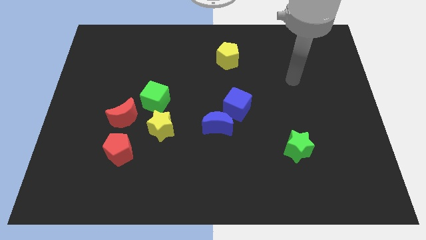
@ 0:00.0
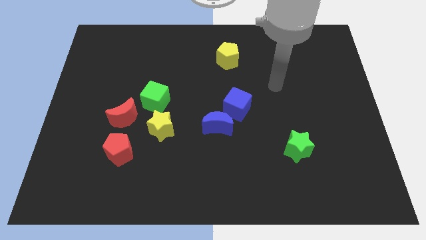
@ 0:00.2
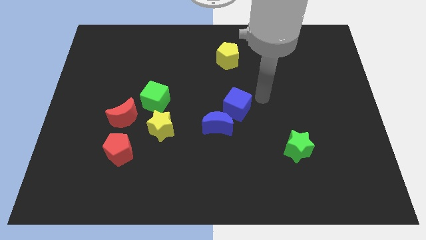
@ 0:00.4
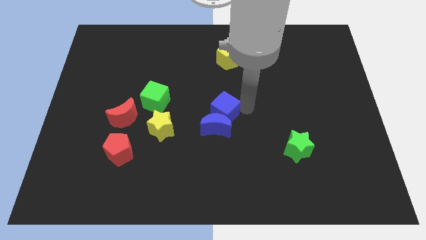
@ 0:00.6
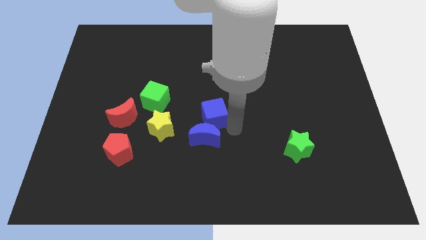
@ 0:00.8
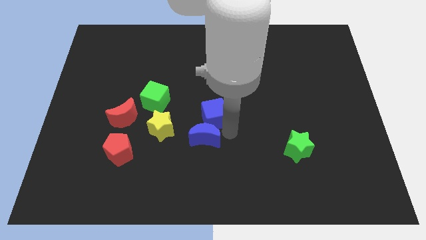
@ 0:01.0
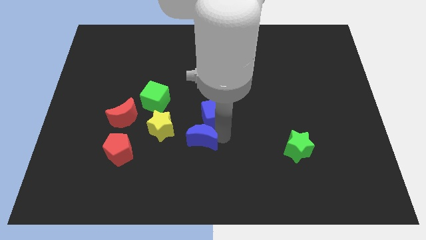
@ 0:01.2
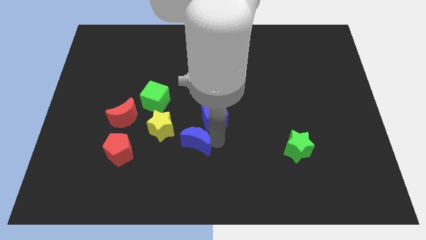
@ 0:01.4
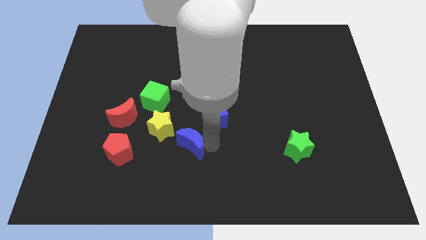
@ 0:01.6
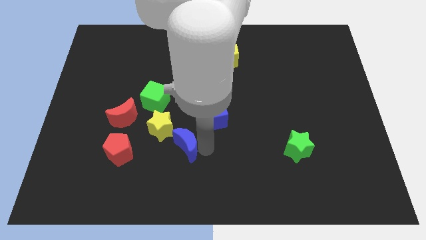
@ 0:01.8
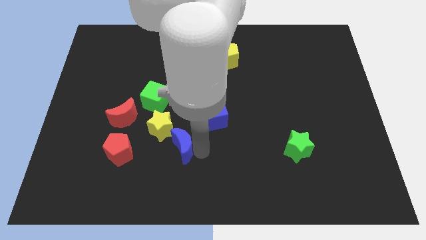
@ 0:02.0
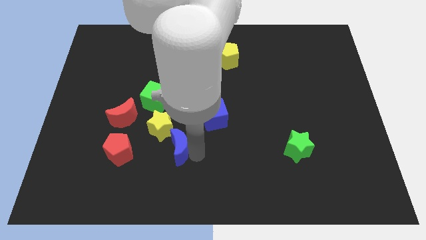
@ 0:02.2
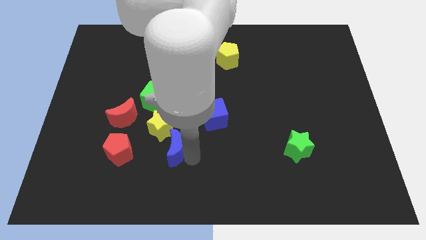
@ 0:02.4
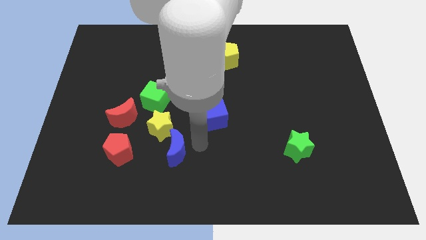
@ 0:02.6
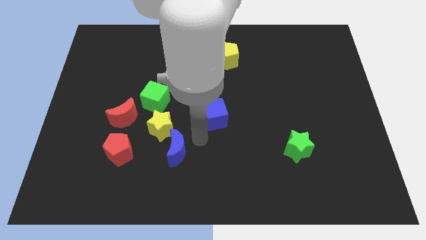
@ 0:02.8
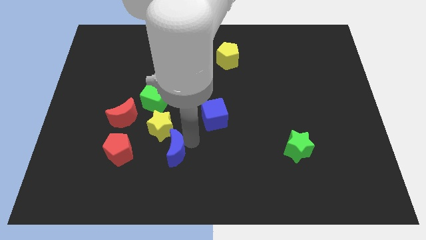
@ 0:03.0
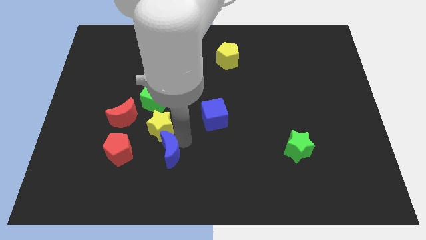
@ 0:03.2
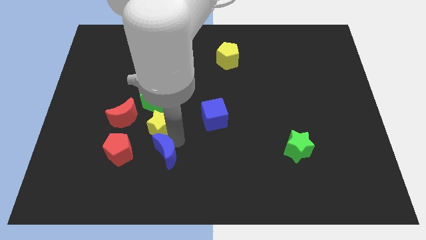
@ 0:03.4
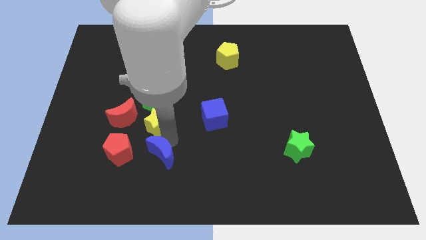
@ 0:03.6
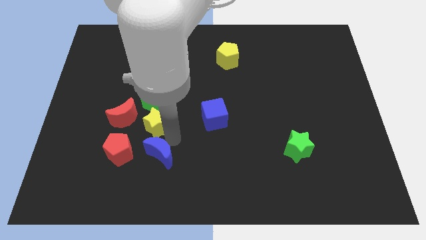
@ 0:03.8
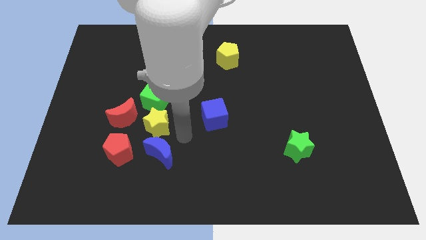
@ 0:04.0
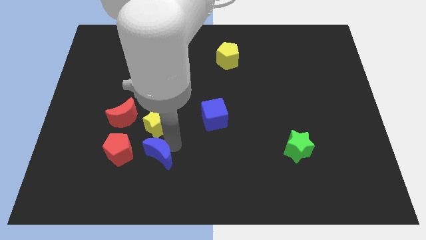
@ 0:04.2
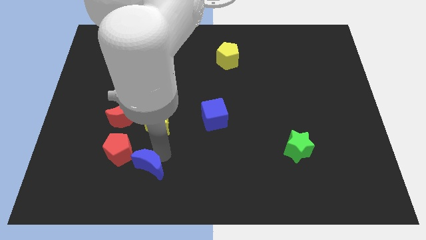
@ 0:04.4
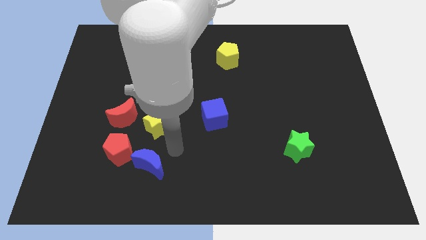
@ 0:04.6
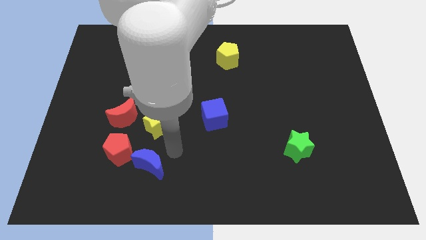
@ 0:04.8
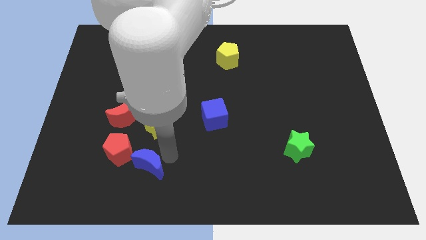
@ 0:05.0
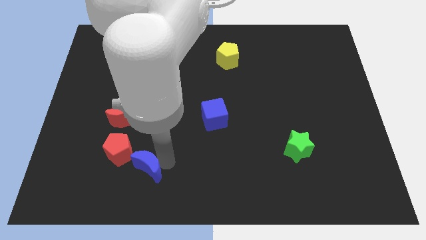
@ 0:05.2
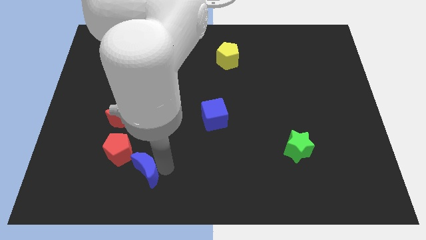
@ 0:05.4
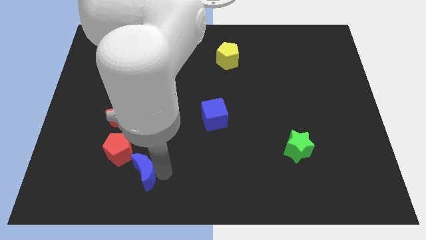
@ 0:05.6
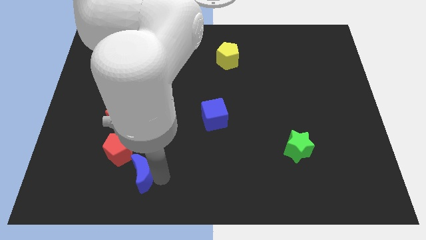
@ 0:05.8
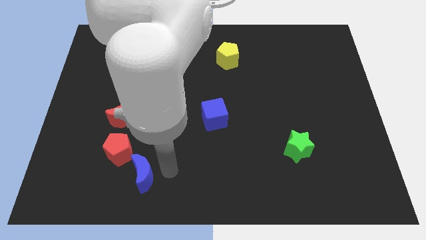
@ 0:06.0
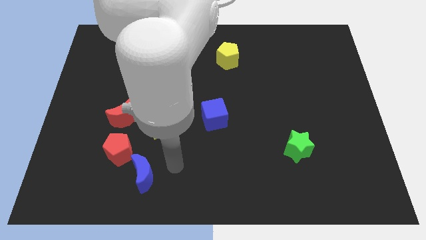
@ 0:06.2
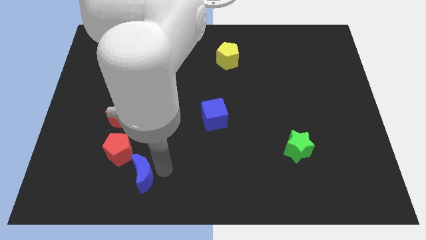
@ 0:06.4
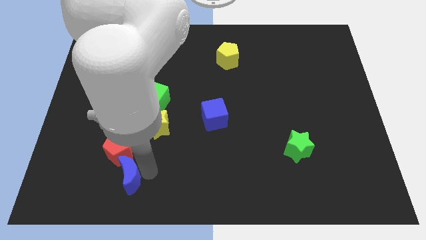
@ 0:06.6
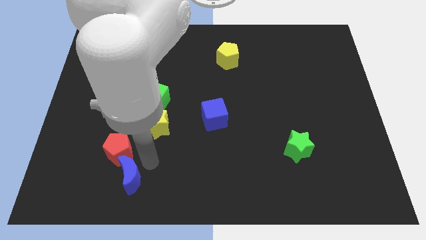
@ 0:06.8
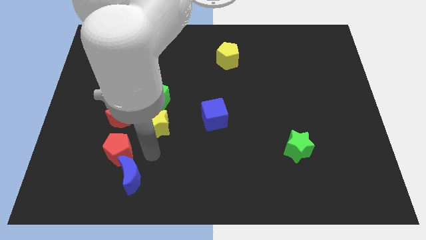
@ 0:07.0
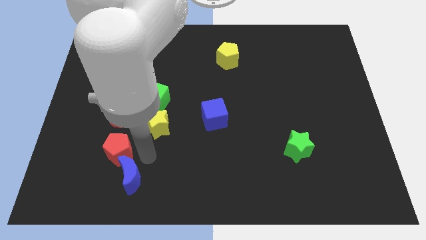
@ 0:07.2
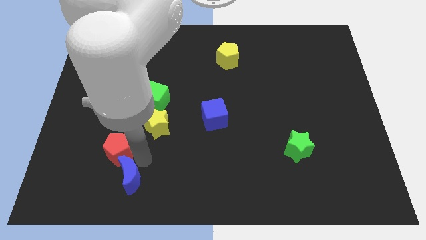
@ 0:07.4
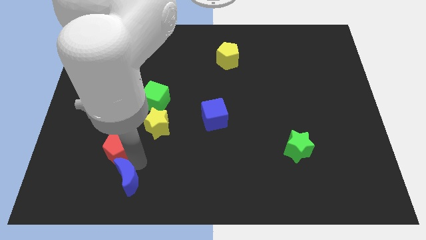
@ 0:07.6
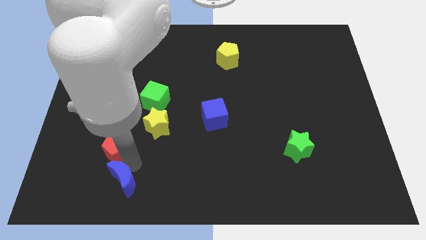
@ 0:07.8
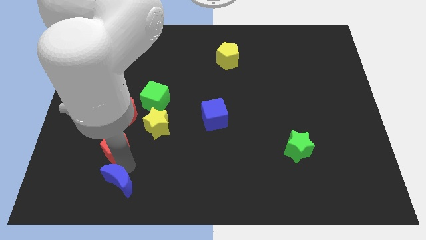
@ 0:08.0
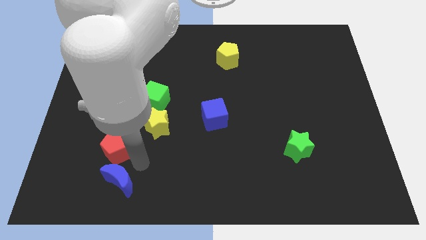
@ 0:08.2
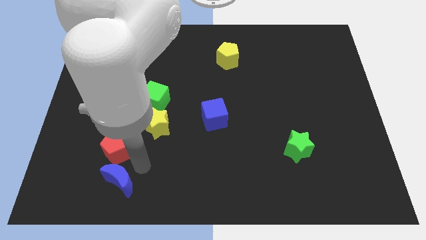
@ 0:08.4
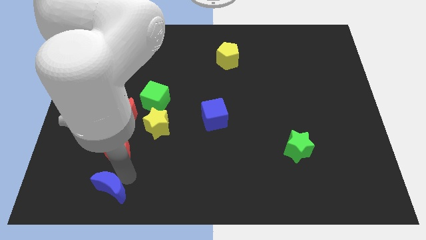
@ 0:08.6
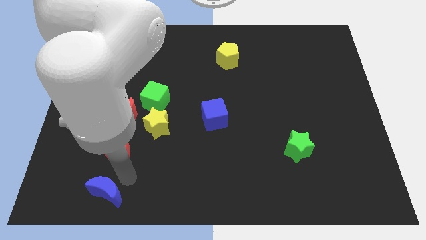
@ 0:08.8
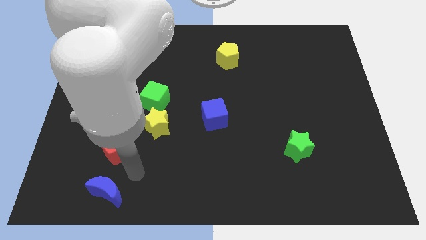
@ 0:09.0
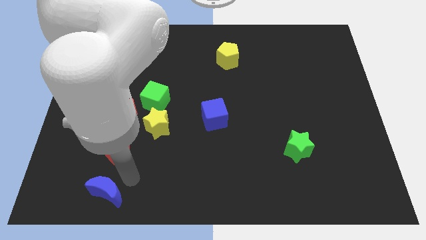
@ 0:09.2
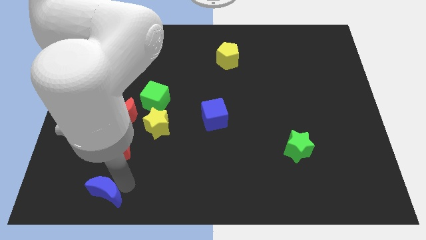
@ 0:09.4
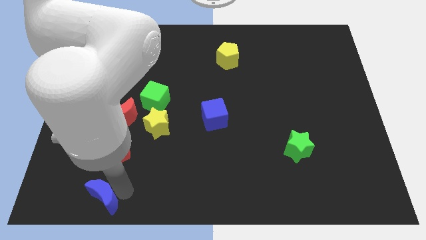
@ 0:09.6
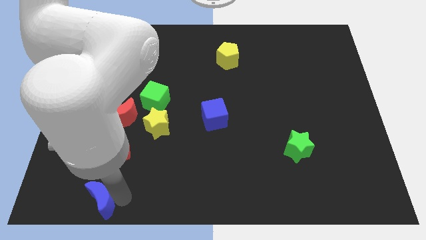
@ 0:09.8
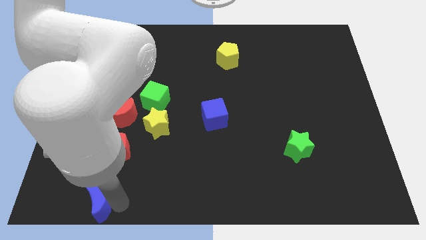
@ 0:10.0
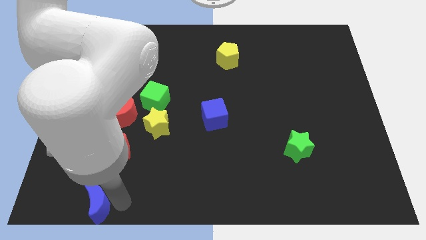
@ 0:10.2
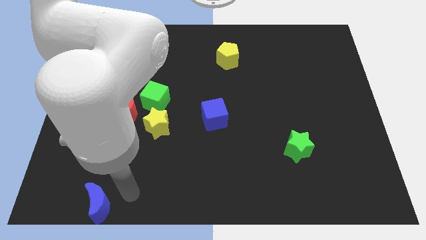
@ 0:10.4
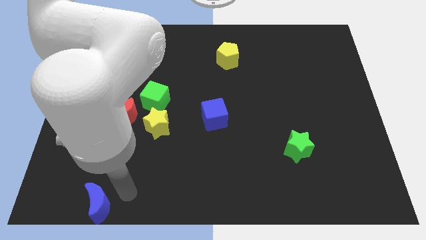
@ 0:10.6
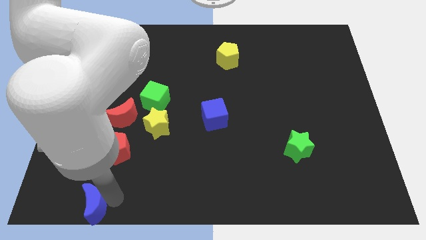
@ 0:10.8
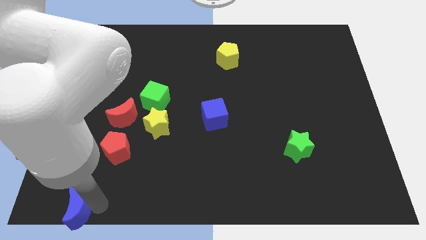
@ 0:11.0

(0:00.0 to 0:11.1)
move the blue moon to the bottom left corner

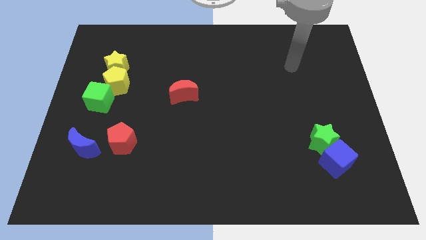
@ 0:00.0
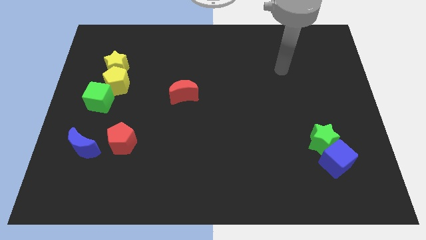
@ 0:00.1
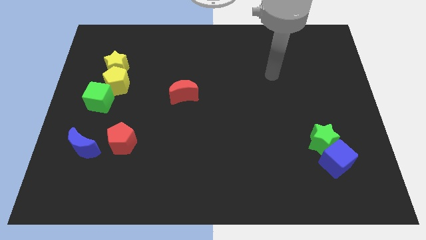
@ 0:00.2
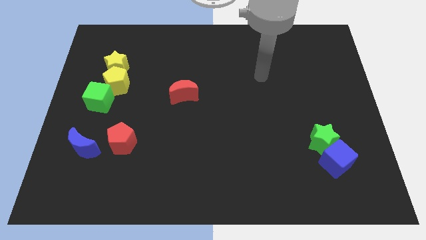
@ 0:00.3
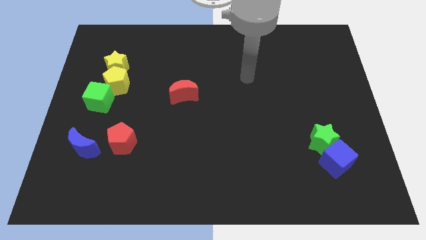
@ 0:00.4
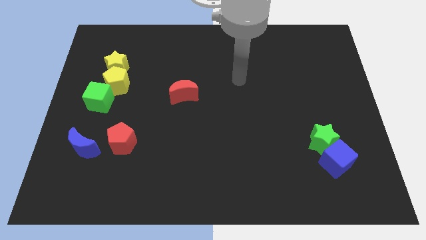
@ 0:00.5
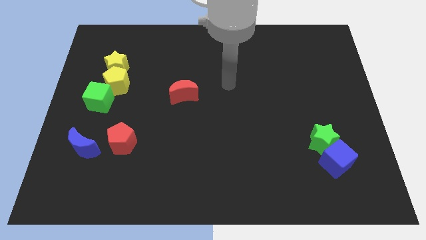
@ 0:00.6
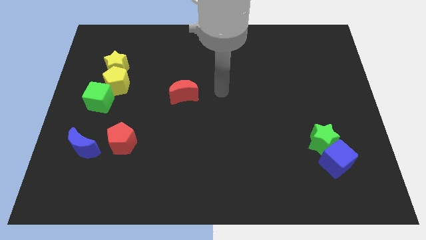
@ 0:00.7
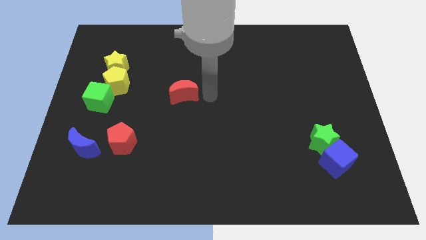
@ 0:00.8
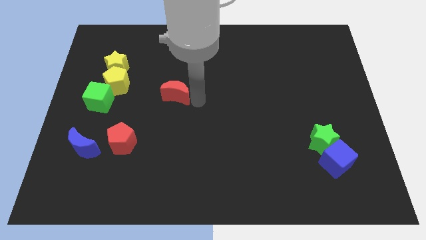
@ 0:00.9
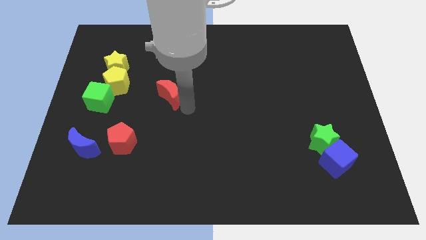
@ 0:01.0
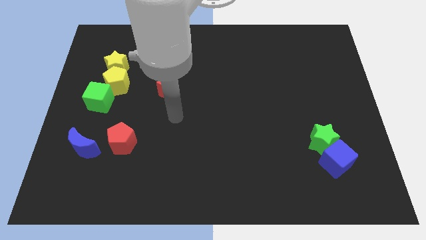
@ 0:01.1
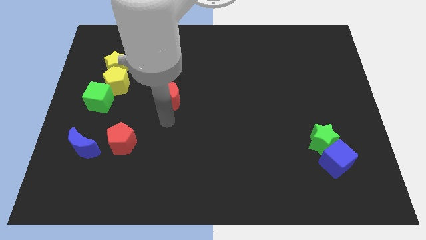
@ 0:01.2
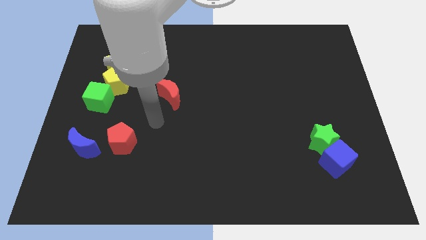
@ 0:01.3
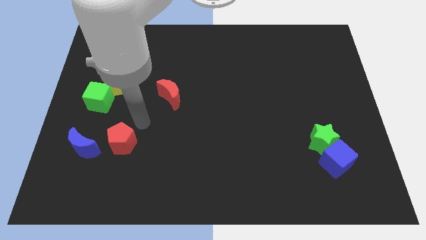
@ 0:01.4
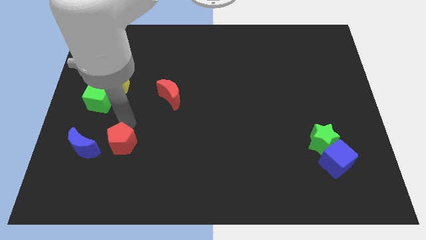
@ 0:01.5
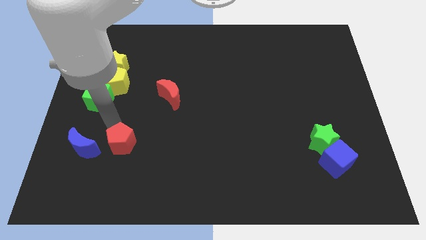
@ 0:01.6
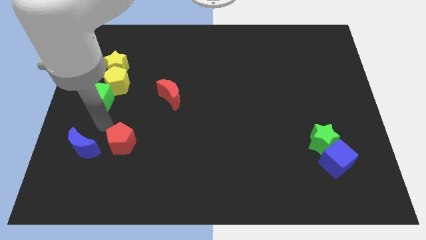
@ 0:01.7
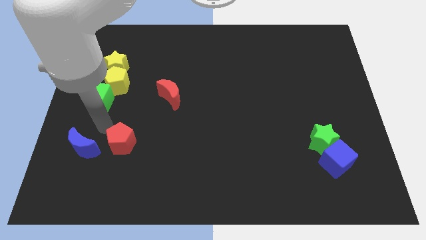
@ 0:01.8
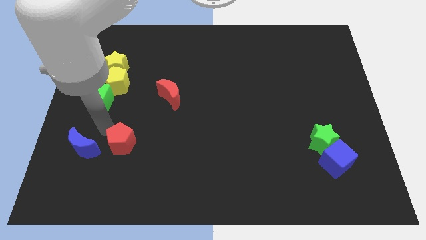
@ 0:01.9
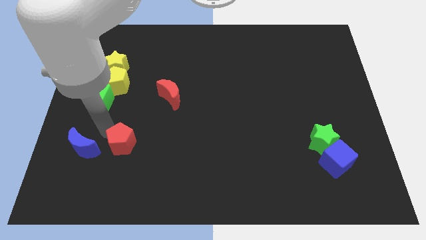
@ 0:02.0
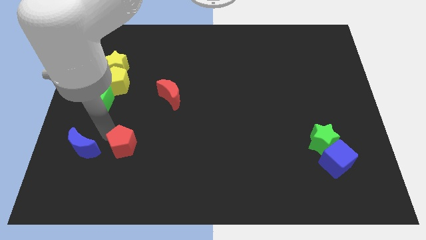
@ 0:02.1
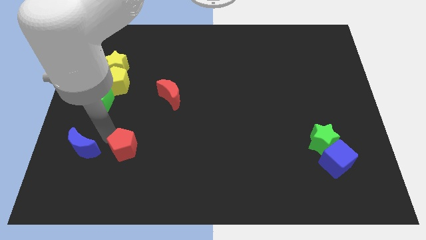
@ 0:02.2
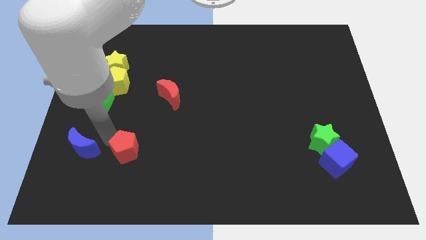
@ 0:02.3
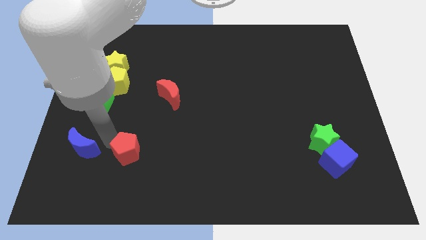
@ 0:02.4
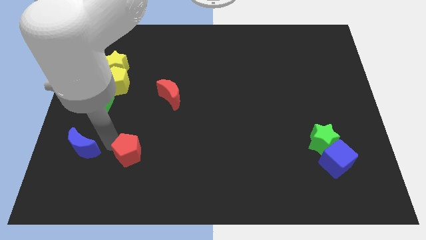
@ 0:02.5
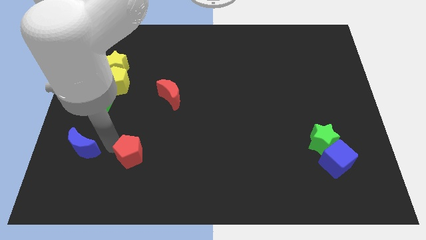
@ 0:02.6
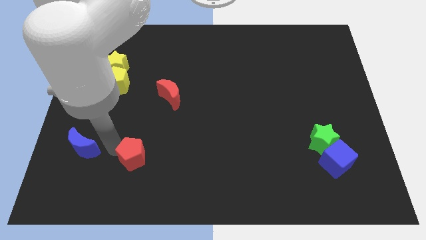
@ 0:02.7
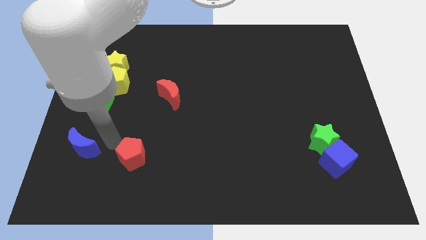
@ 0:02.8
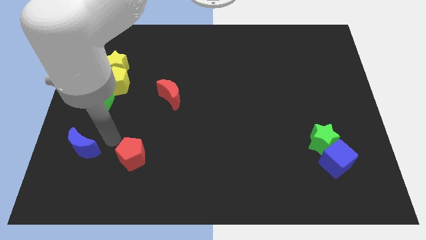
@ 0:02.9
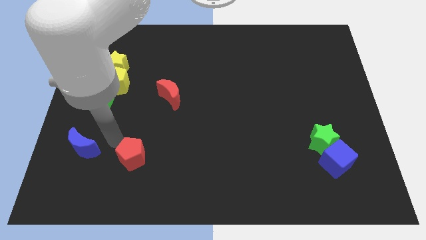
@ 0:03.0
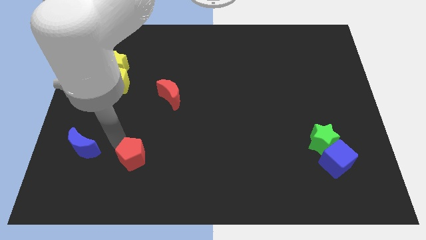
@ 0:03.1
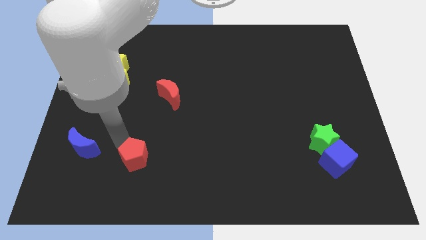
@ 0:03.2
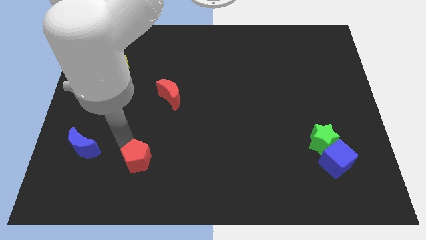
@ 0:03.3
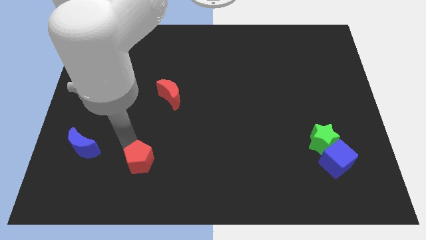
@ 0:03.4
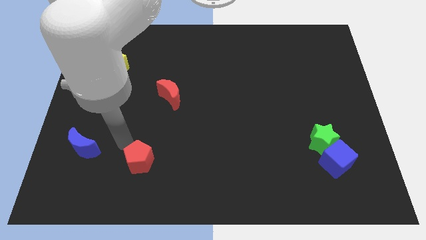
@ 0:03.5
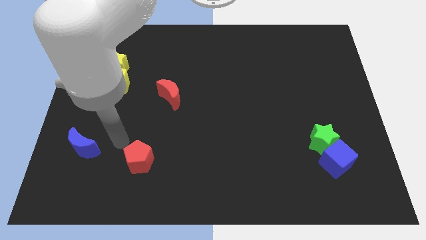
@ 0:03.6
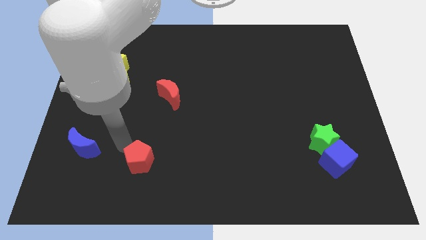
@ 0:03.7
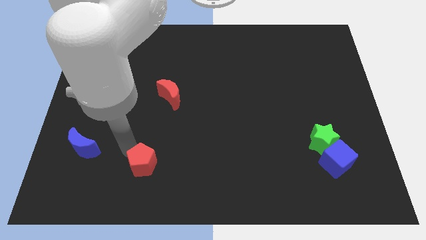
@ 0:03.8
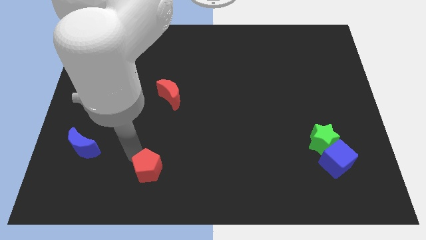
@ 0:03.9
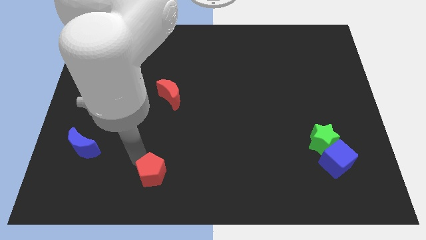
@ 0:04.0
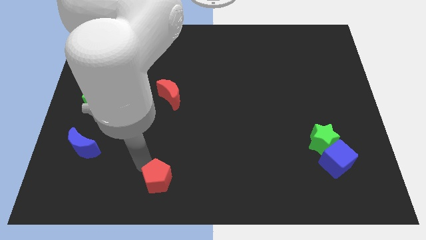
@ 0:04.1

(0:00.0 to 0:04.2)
put the red pentagon to the bottom side
